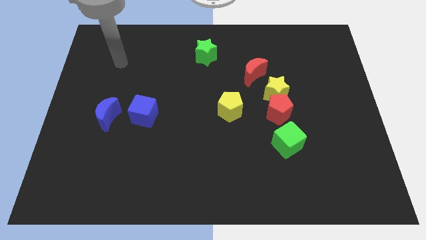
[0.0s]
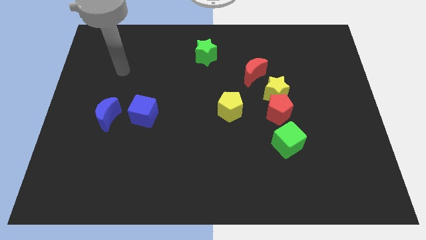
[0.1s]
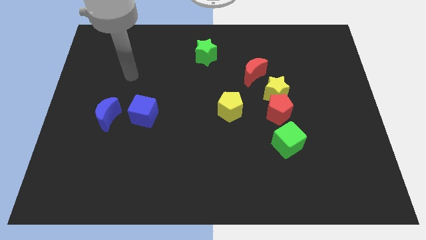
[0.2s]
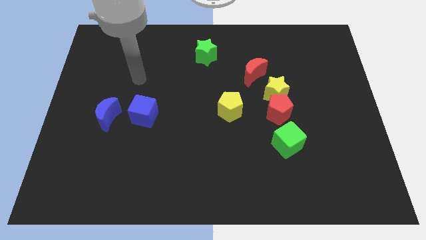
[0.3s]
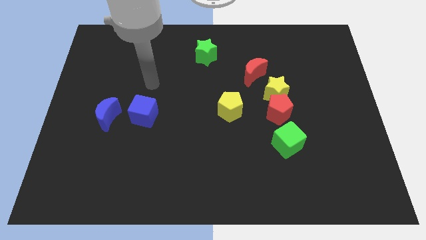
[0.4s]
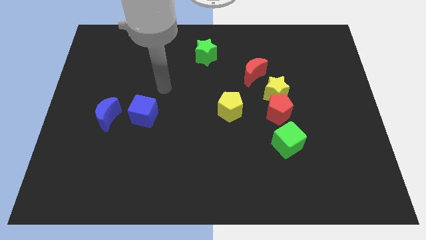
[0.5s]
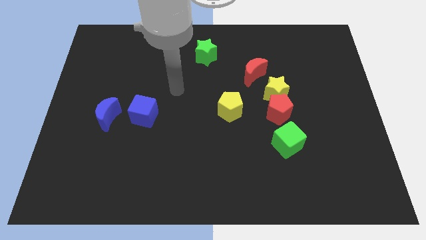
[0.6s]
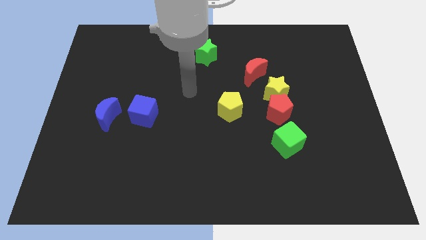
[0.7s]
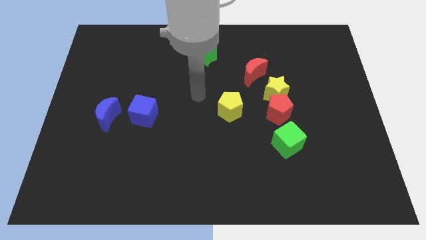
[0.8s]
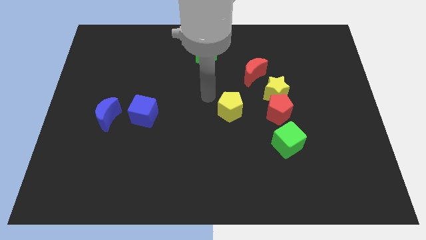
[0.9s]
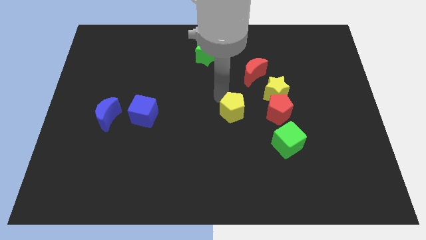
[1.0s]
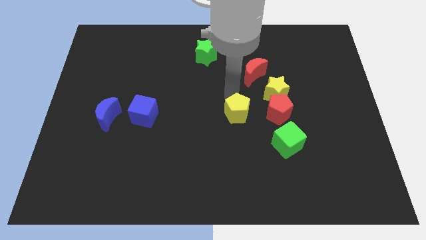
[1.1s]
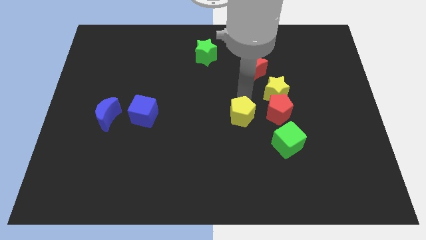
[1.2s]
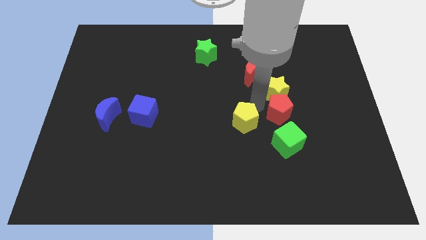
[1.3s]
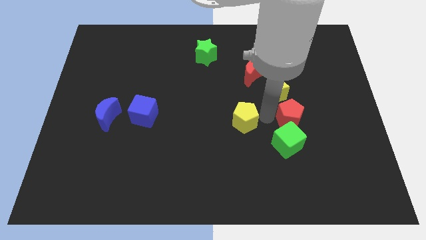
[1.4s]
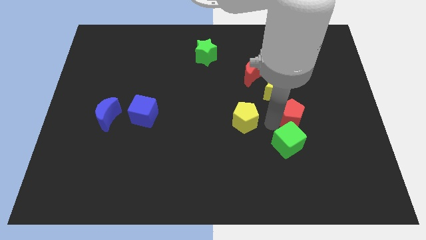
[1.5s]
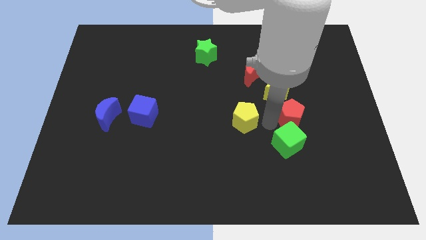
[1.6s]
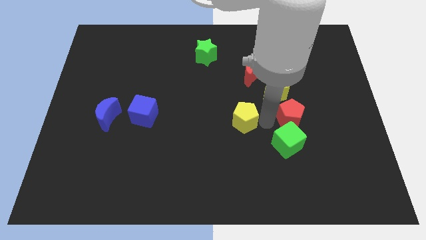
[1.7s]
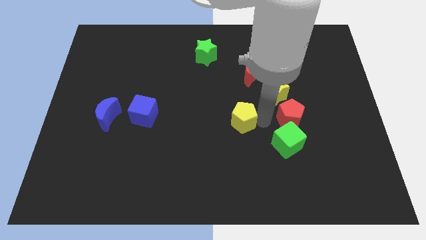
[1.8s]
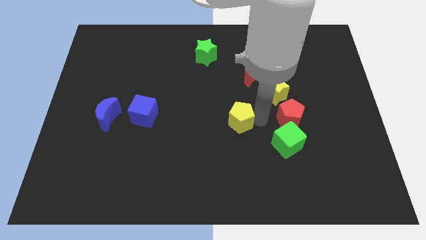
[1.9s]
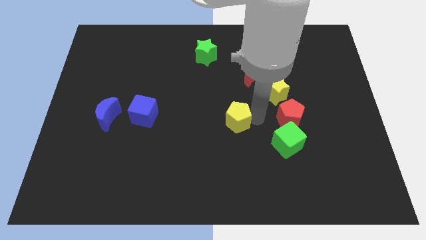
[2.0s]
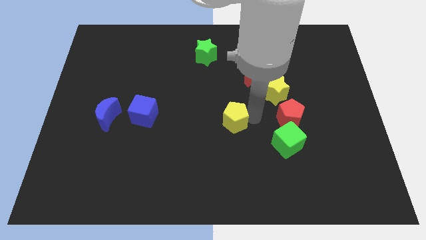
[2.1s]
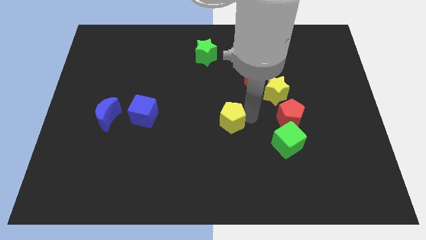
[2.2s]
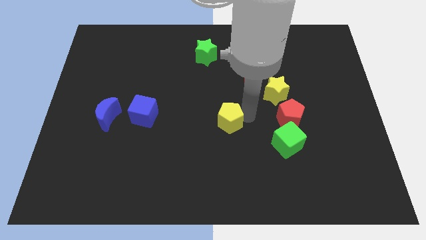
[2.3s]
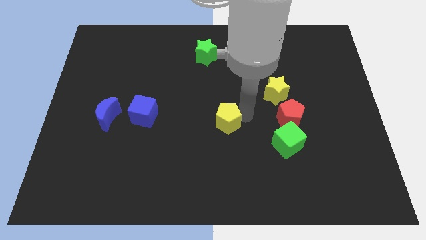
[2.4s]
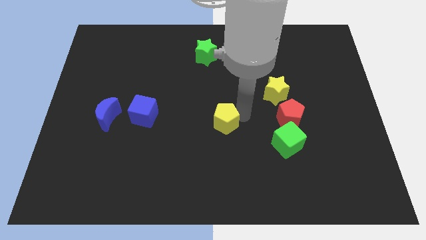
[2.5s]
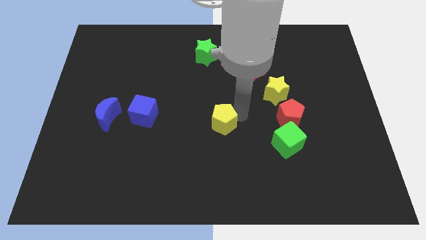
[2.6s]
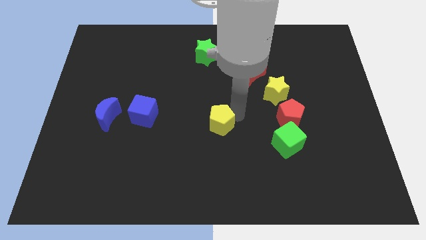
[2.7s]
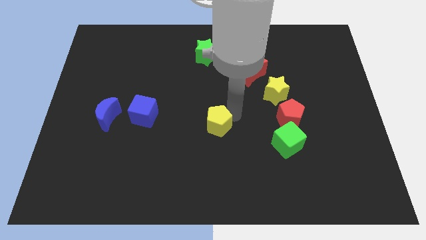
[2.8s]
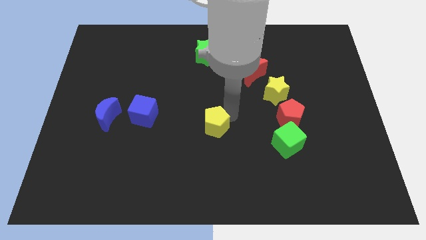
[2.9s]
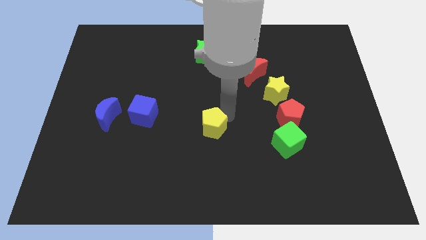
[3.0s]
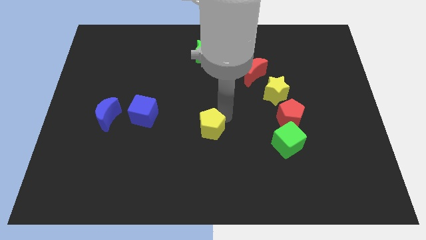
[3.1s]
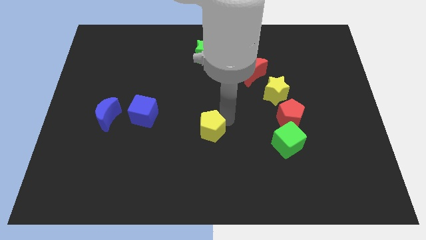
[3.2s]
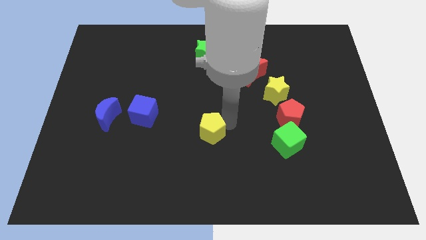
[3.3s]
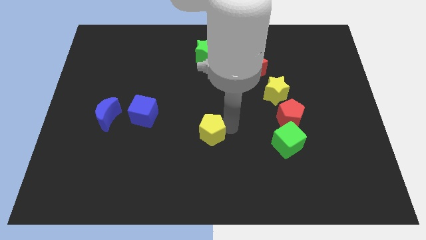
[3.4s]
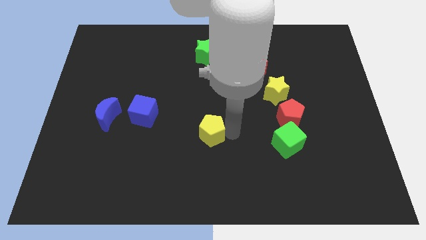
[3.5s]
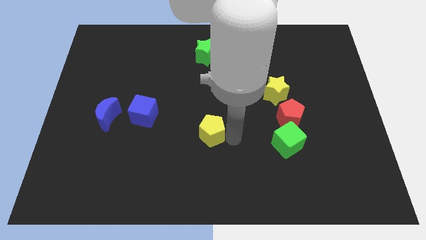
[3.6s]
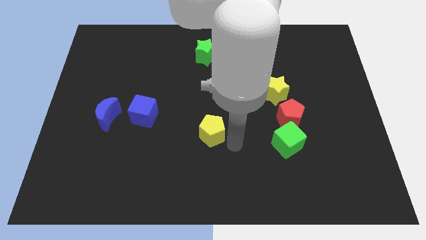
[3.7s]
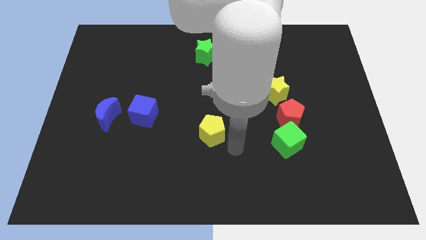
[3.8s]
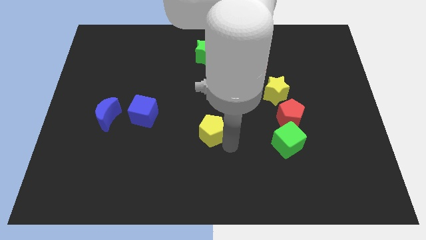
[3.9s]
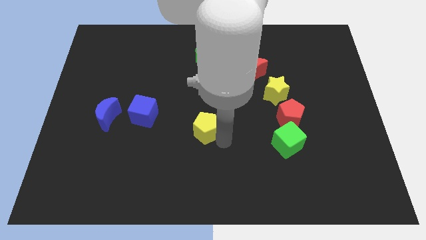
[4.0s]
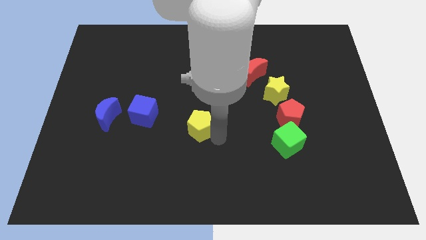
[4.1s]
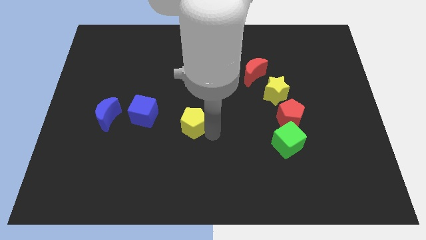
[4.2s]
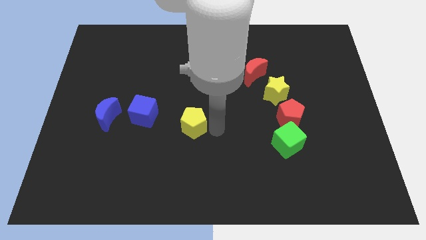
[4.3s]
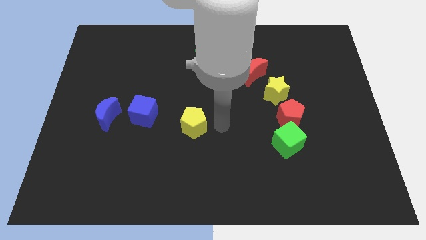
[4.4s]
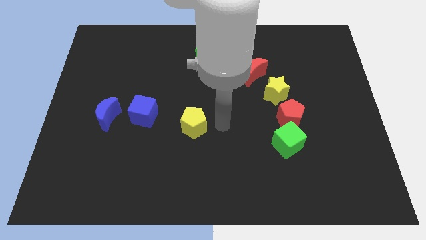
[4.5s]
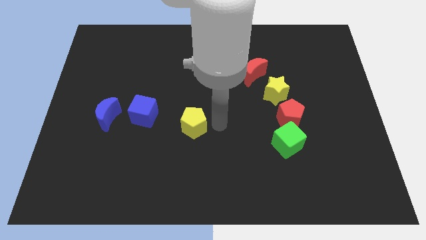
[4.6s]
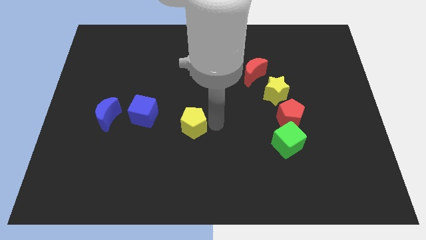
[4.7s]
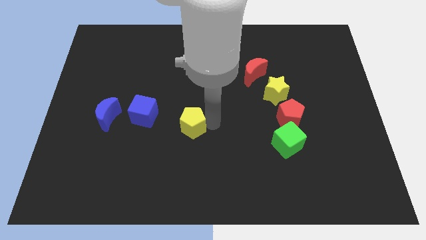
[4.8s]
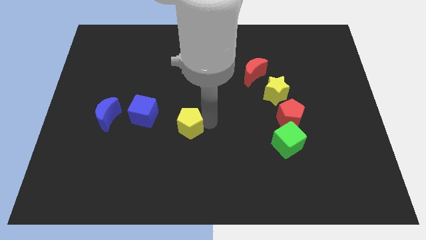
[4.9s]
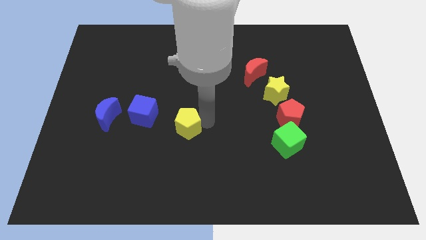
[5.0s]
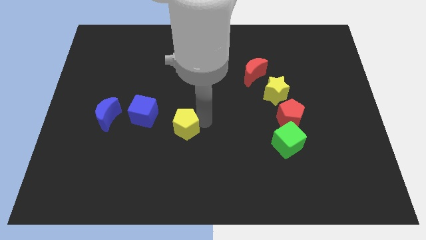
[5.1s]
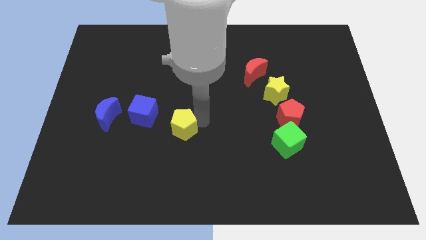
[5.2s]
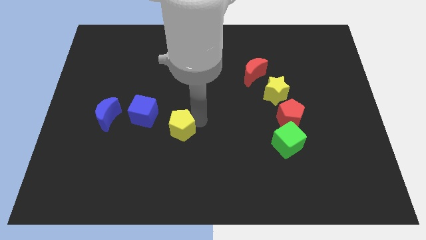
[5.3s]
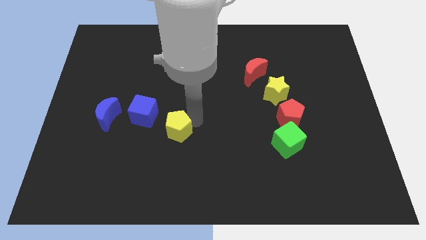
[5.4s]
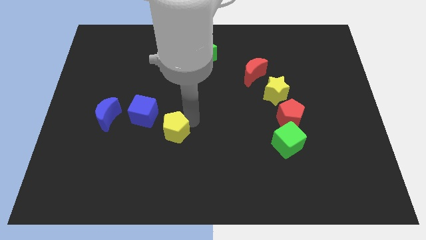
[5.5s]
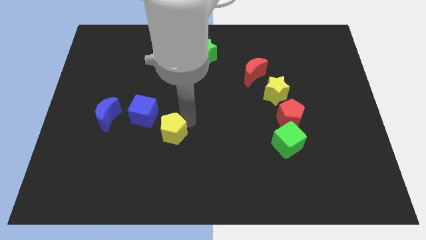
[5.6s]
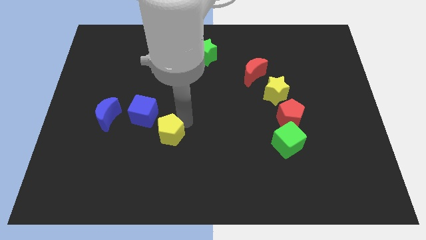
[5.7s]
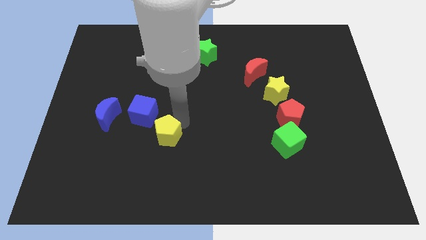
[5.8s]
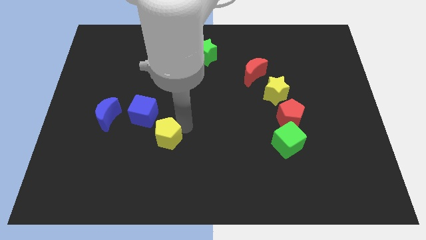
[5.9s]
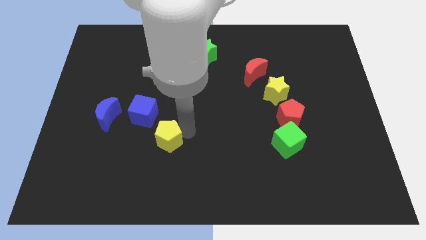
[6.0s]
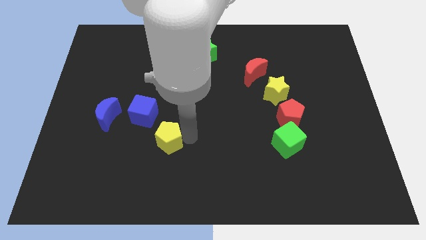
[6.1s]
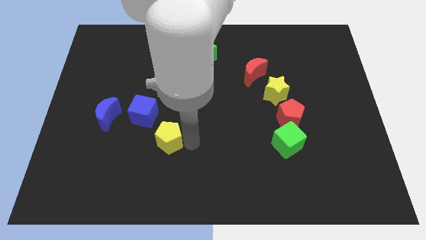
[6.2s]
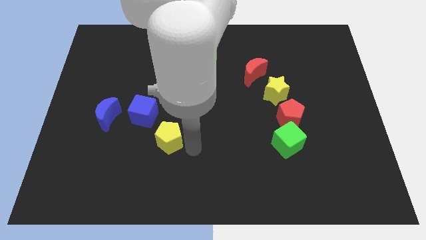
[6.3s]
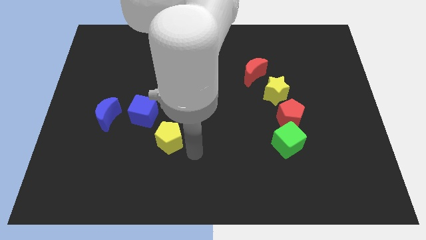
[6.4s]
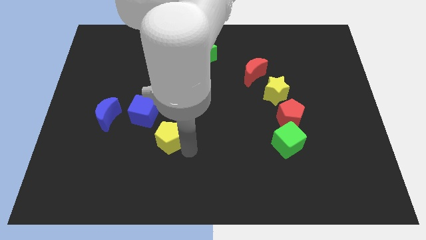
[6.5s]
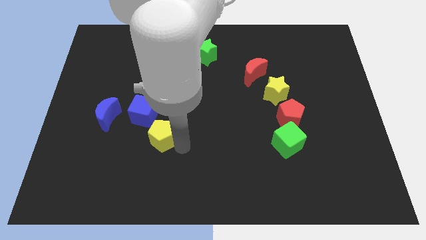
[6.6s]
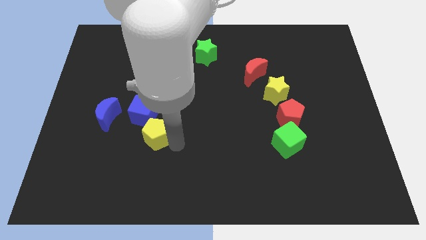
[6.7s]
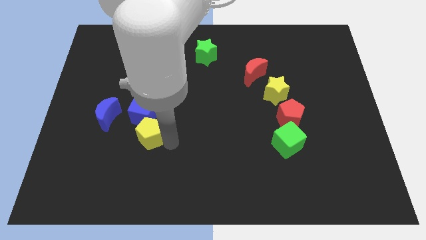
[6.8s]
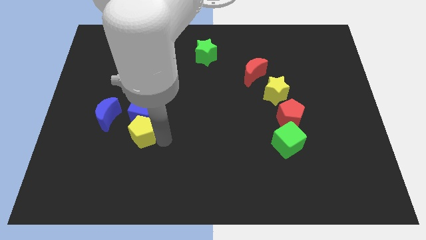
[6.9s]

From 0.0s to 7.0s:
put the yellow pentagon to the bottom left side of the blue cube
